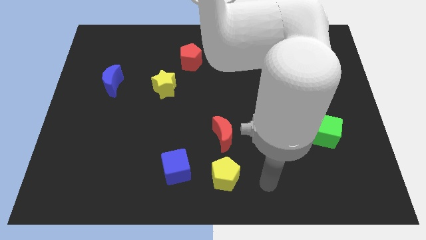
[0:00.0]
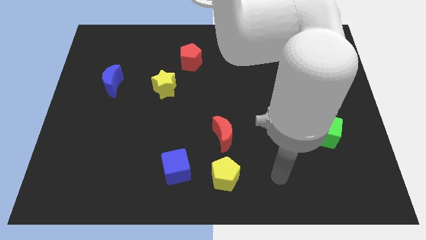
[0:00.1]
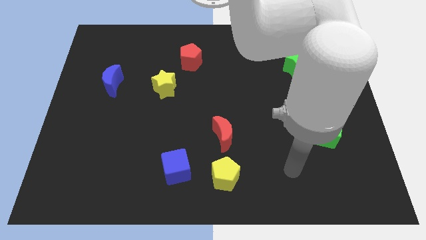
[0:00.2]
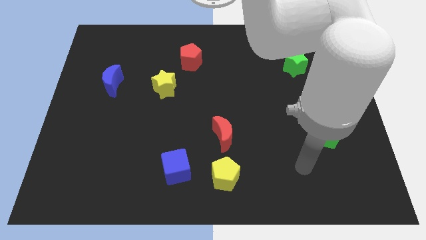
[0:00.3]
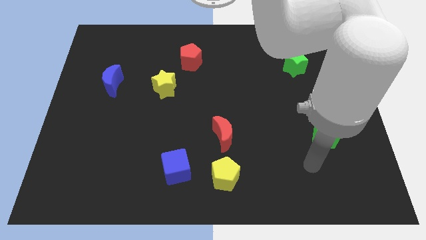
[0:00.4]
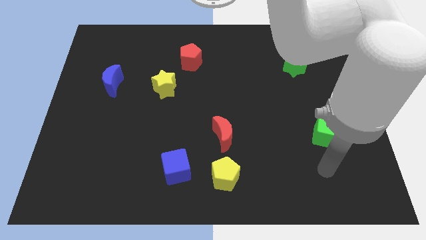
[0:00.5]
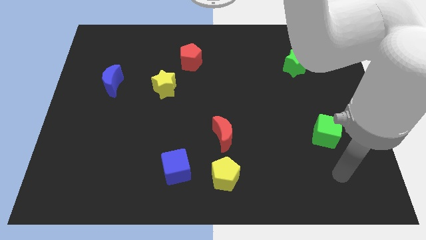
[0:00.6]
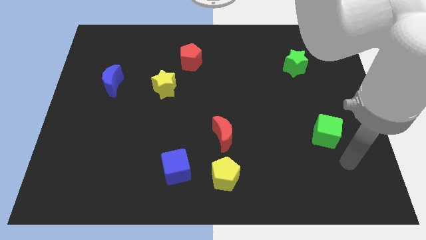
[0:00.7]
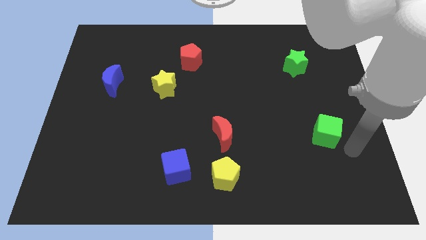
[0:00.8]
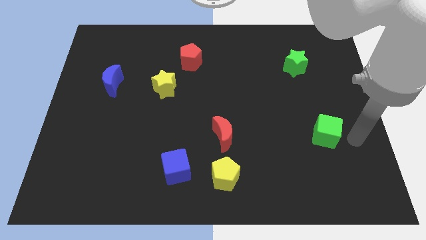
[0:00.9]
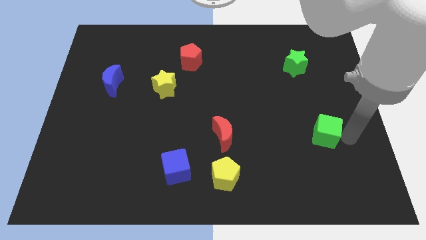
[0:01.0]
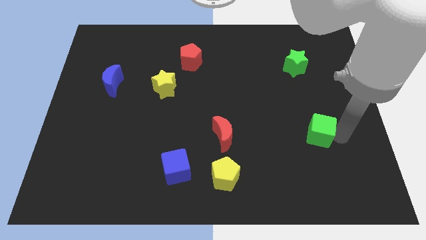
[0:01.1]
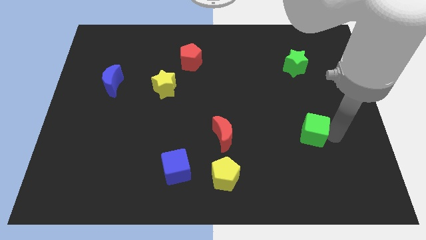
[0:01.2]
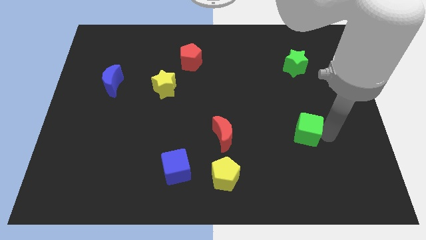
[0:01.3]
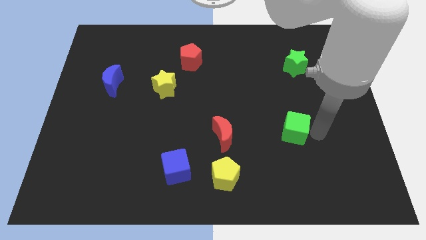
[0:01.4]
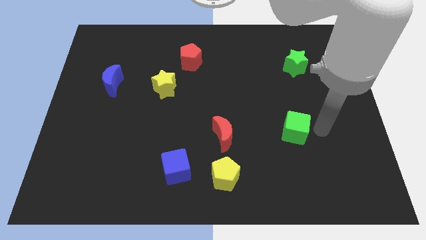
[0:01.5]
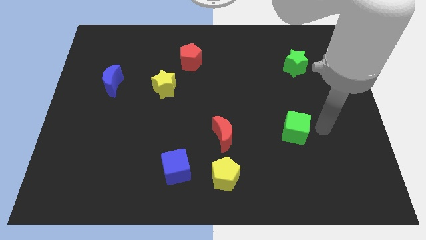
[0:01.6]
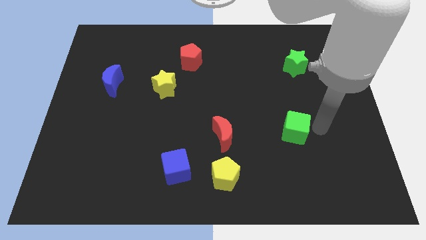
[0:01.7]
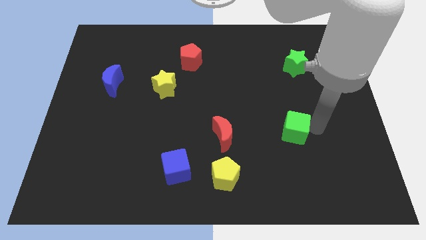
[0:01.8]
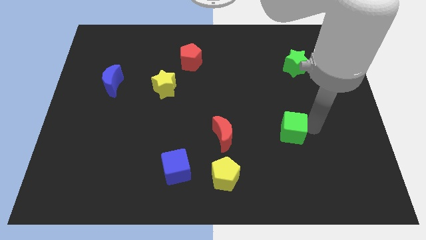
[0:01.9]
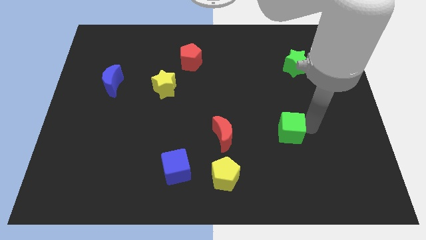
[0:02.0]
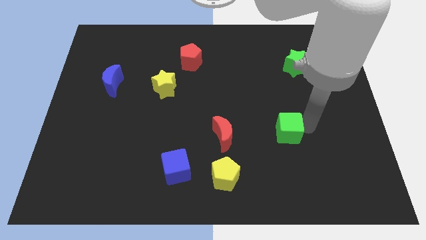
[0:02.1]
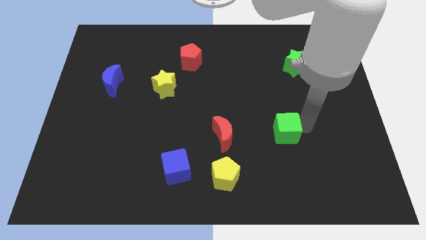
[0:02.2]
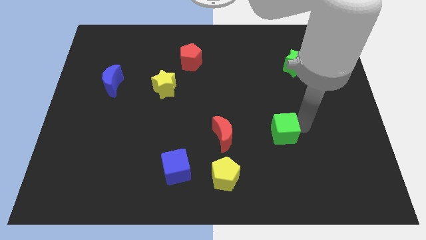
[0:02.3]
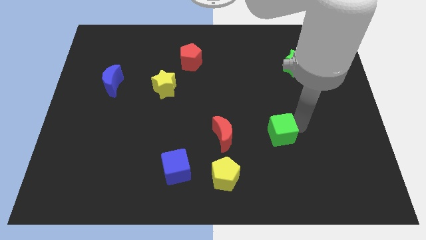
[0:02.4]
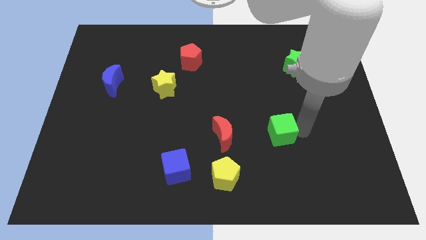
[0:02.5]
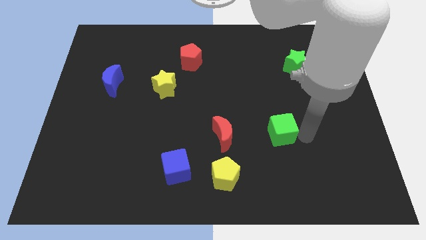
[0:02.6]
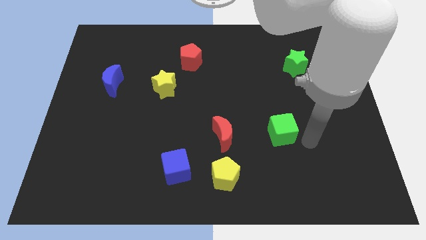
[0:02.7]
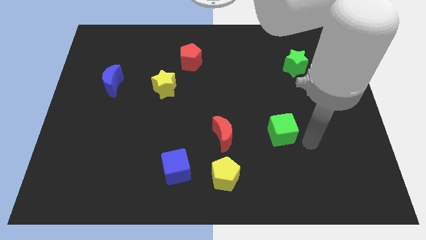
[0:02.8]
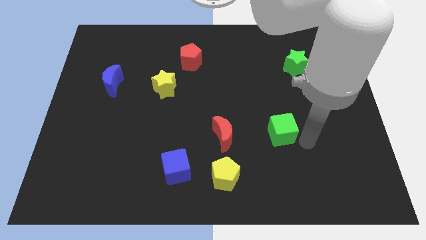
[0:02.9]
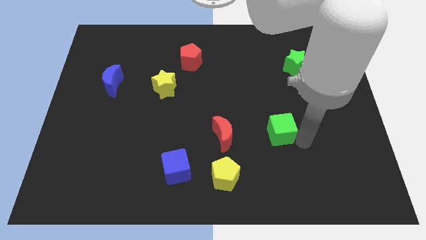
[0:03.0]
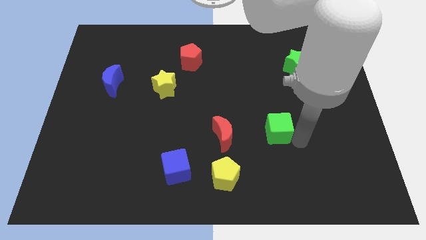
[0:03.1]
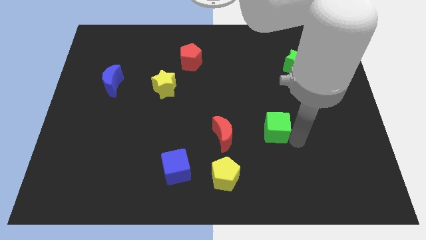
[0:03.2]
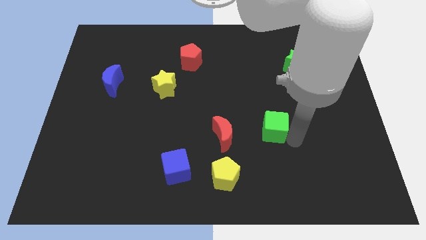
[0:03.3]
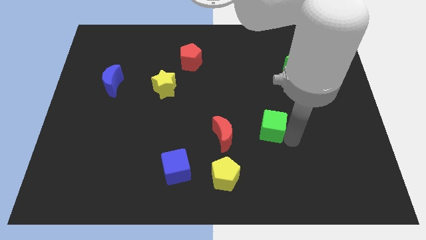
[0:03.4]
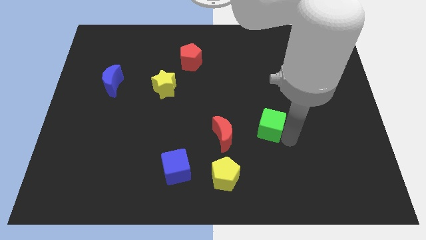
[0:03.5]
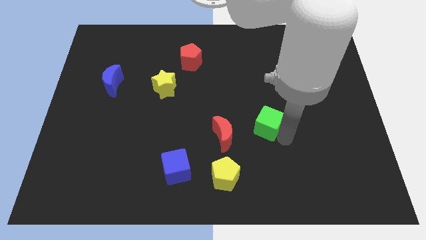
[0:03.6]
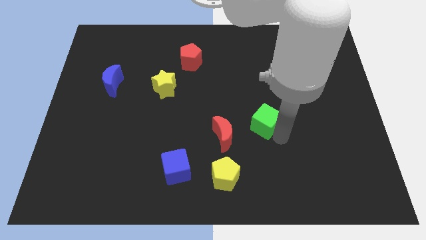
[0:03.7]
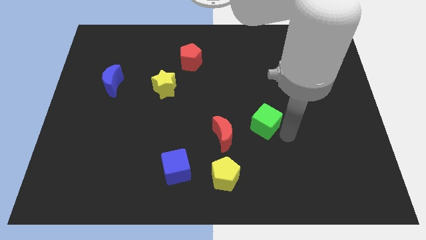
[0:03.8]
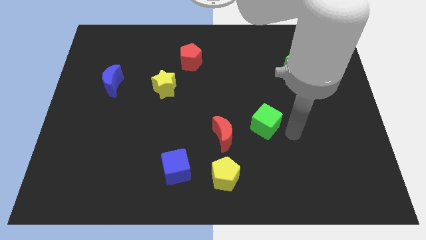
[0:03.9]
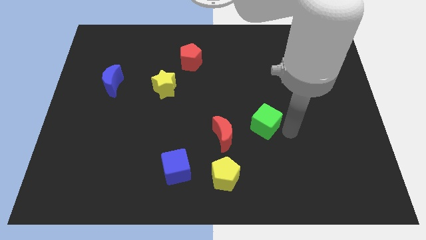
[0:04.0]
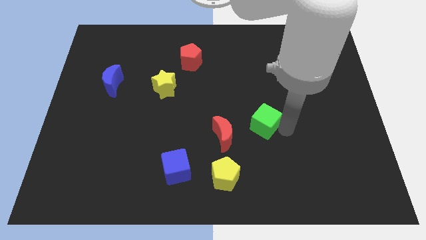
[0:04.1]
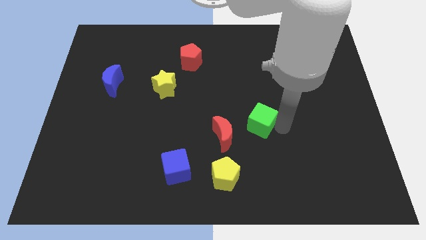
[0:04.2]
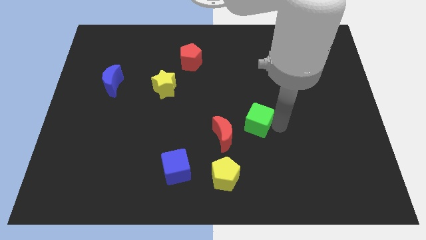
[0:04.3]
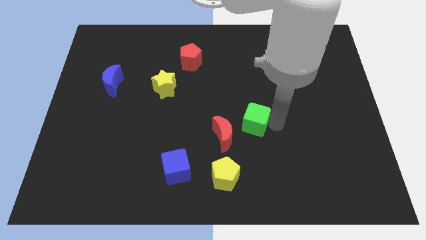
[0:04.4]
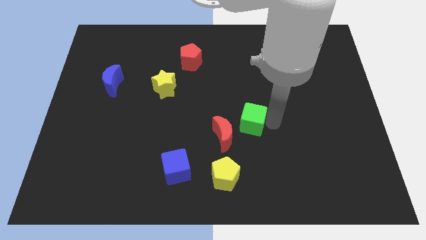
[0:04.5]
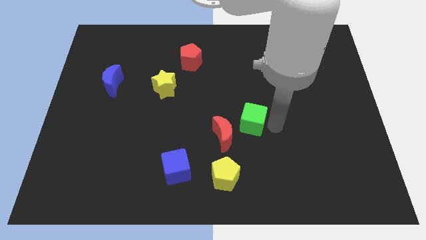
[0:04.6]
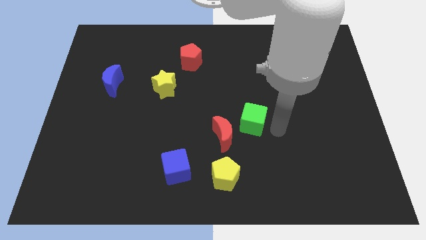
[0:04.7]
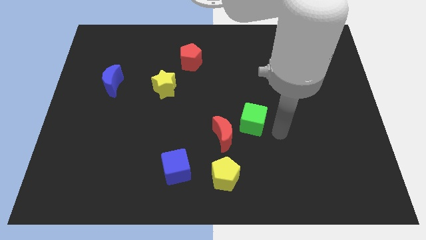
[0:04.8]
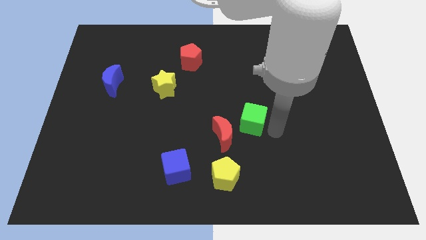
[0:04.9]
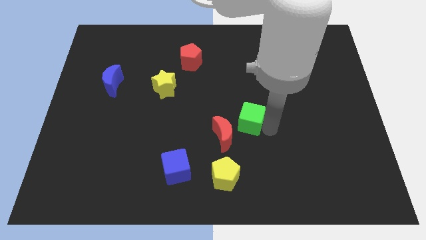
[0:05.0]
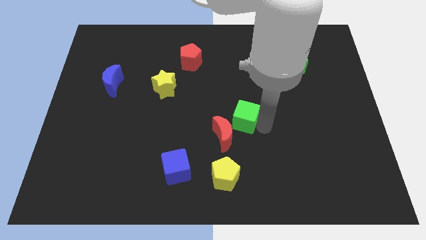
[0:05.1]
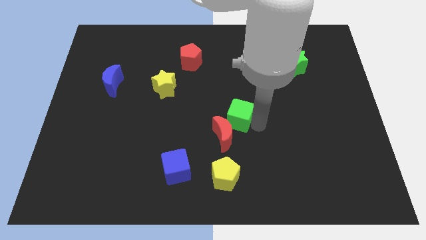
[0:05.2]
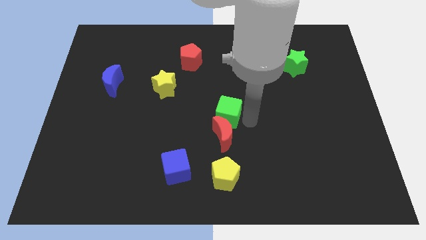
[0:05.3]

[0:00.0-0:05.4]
slide the green cube to the top left of the red moon
